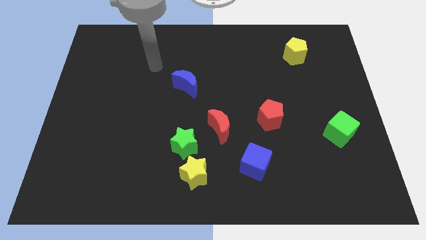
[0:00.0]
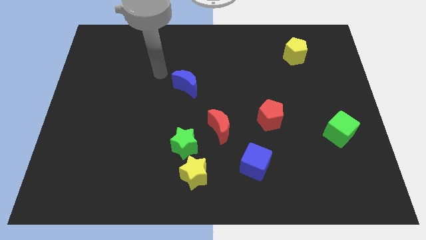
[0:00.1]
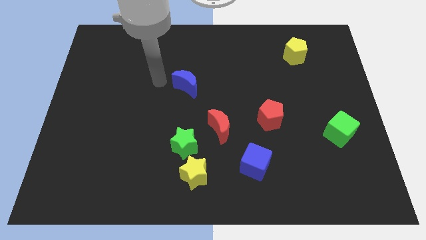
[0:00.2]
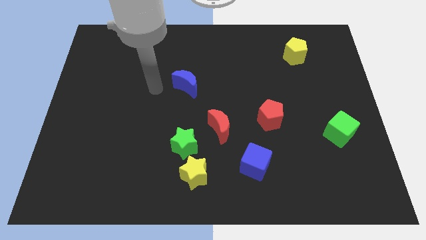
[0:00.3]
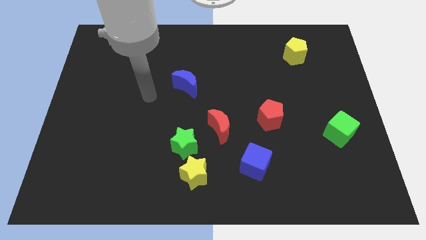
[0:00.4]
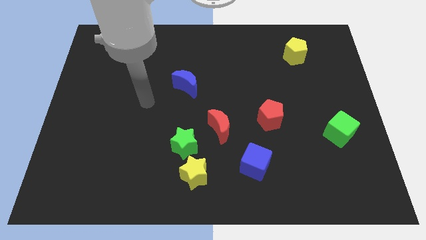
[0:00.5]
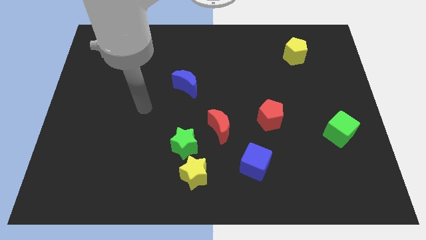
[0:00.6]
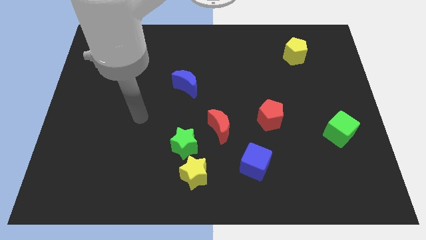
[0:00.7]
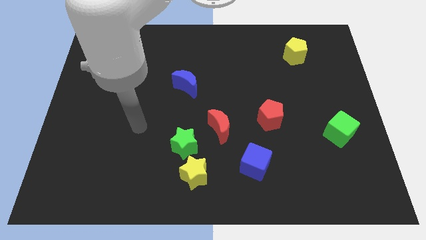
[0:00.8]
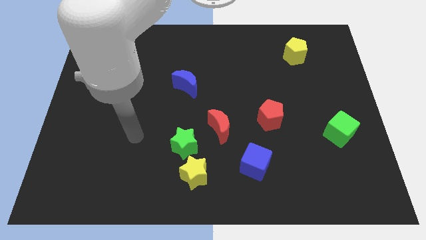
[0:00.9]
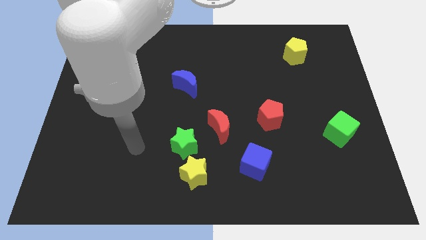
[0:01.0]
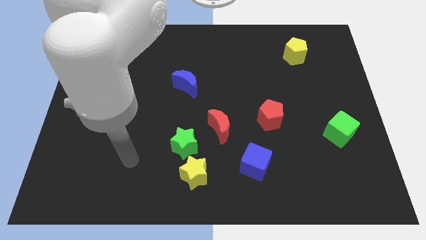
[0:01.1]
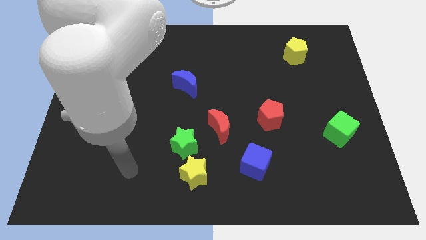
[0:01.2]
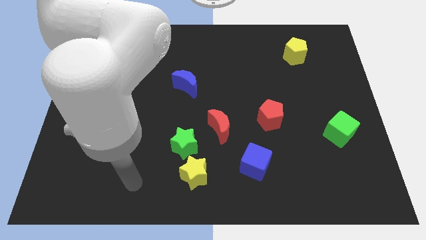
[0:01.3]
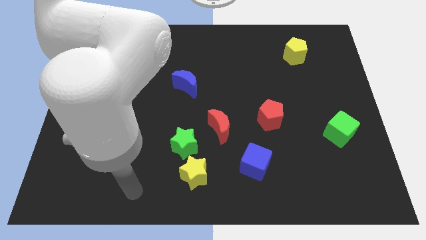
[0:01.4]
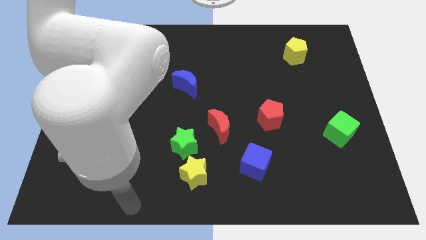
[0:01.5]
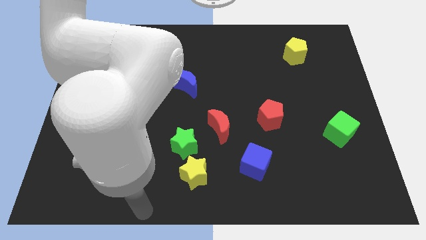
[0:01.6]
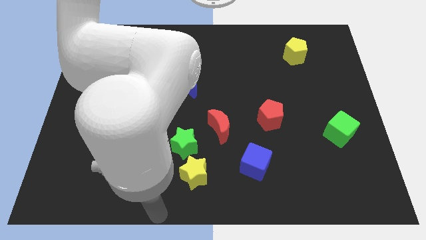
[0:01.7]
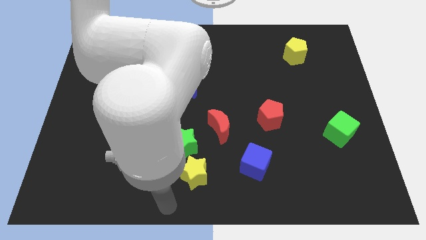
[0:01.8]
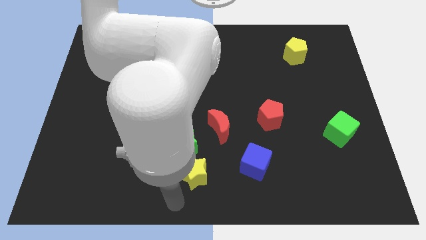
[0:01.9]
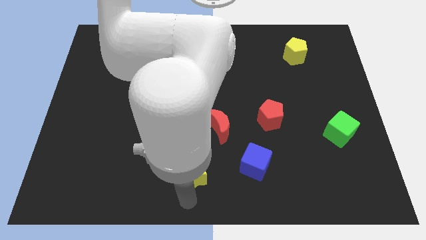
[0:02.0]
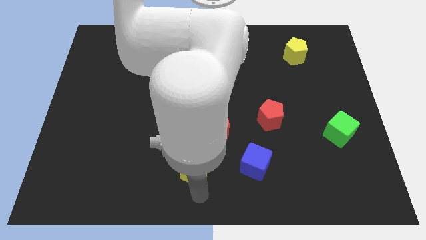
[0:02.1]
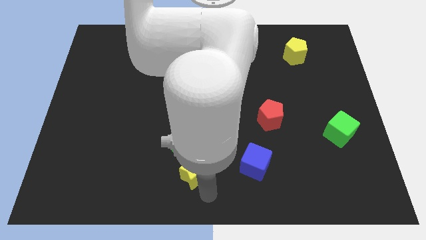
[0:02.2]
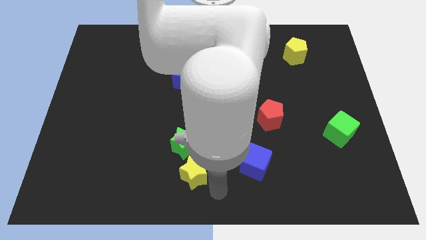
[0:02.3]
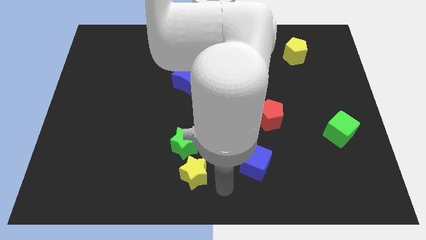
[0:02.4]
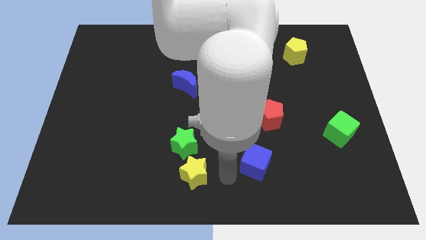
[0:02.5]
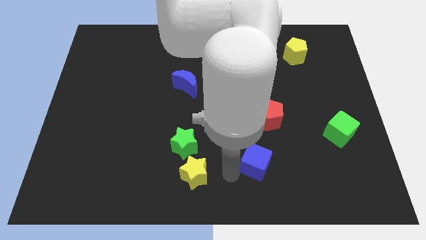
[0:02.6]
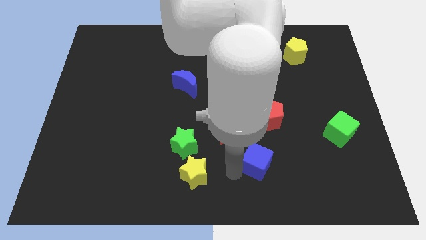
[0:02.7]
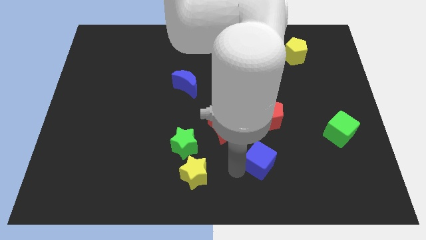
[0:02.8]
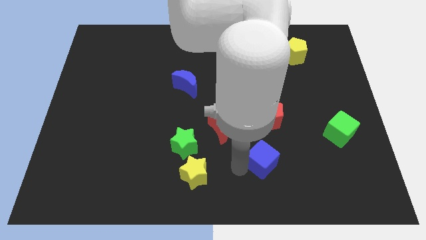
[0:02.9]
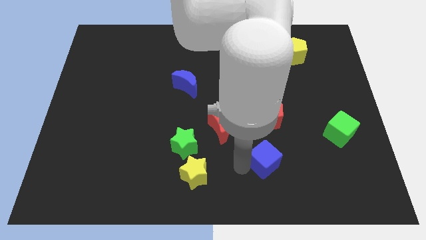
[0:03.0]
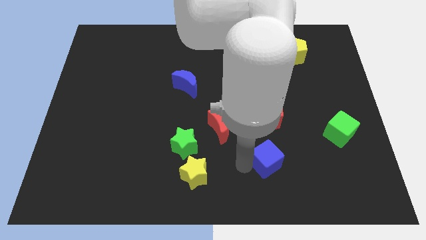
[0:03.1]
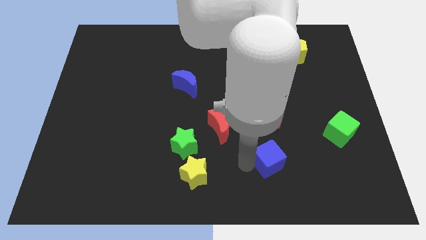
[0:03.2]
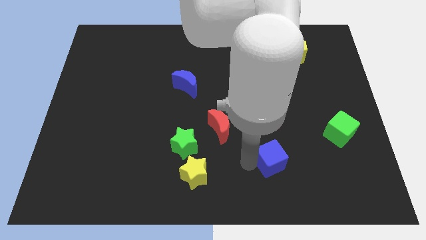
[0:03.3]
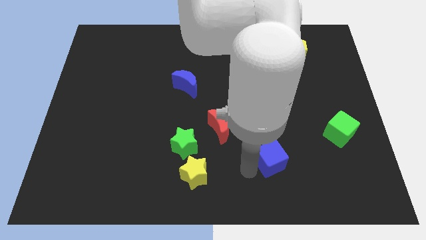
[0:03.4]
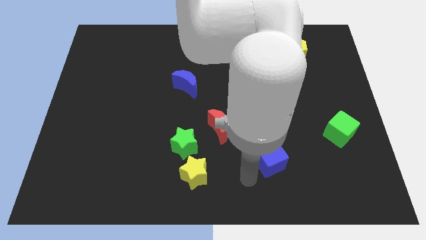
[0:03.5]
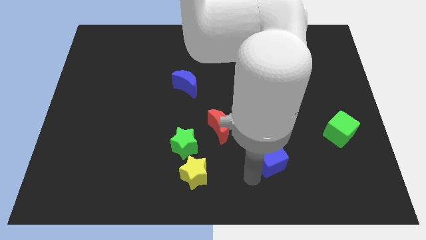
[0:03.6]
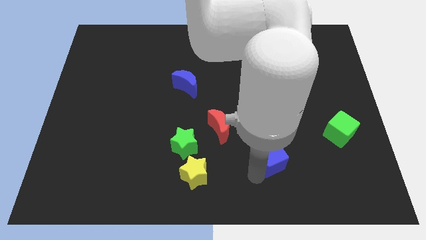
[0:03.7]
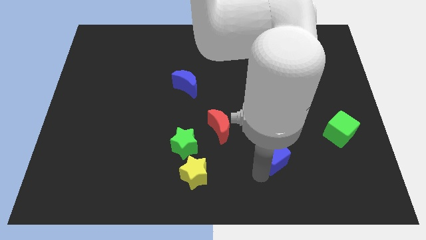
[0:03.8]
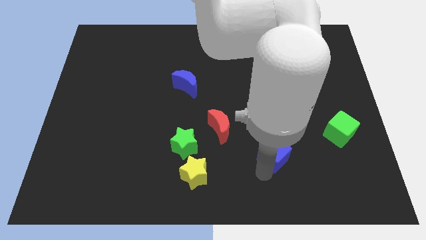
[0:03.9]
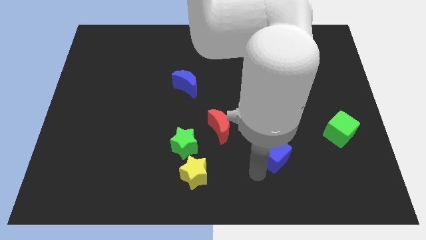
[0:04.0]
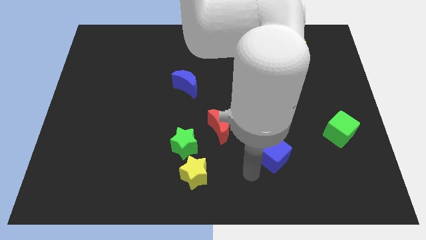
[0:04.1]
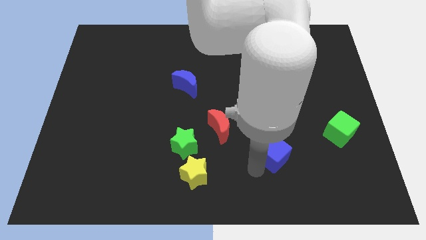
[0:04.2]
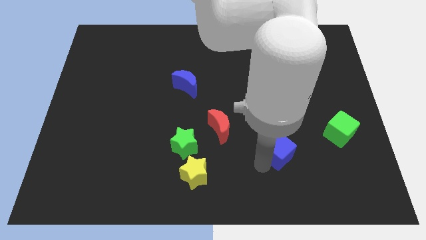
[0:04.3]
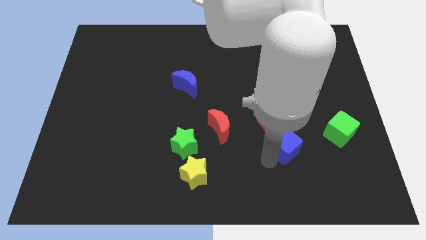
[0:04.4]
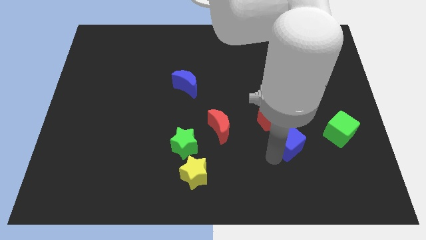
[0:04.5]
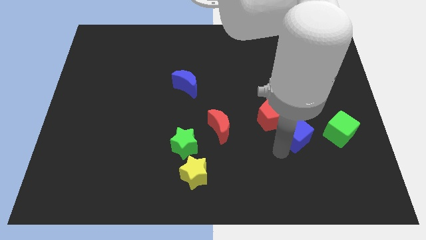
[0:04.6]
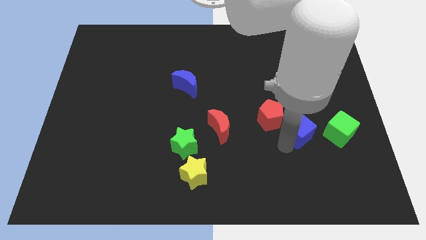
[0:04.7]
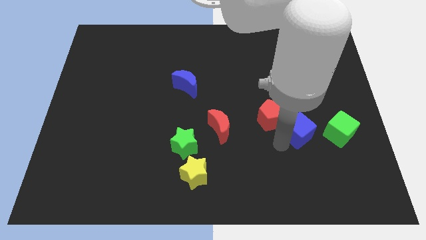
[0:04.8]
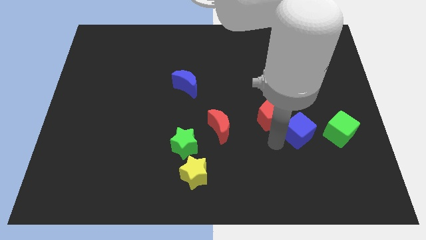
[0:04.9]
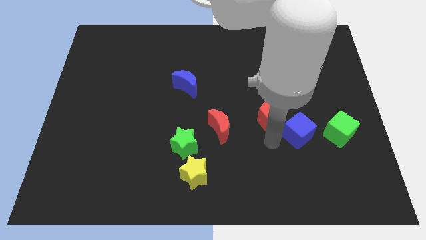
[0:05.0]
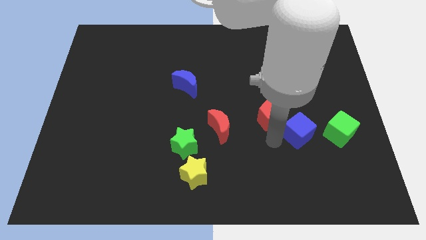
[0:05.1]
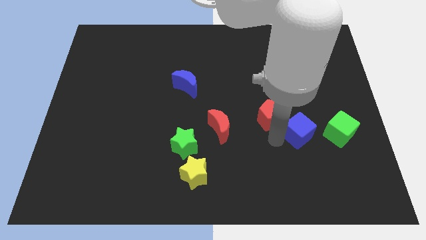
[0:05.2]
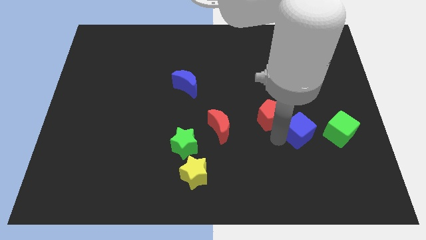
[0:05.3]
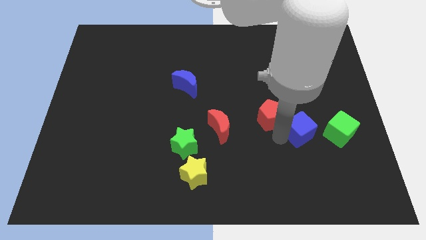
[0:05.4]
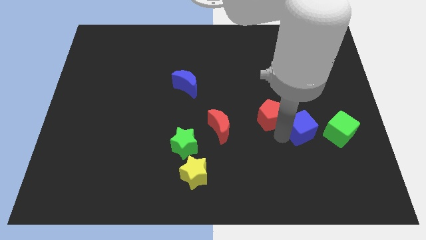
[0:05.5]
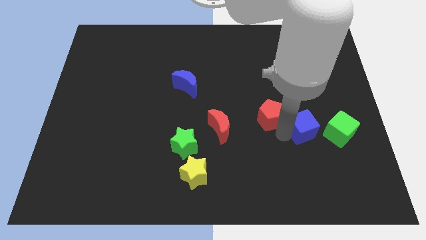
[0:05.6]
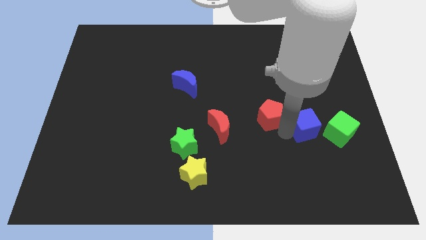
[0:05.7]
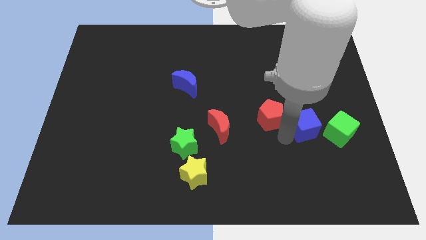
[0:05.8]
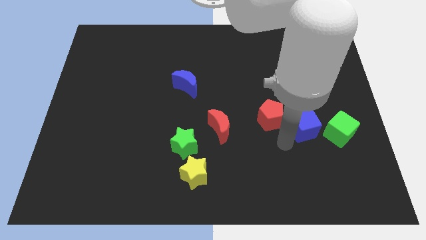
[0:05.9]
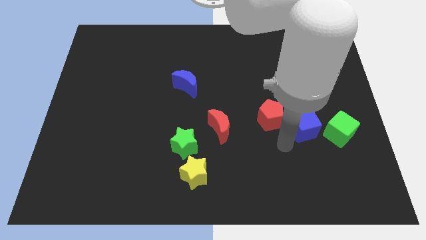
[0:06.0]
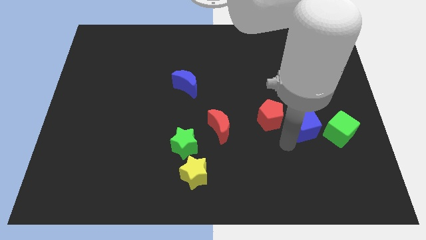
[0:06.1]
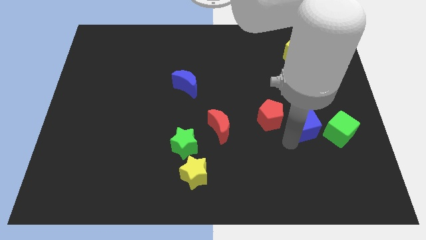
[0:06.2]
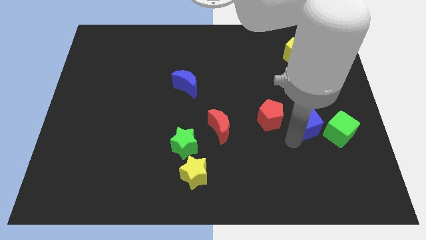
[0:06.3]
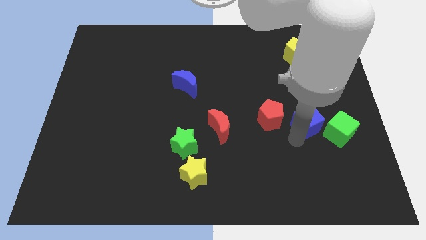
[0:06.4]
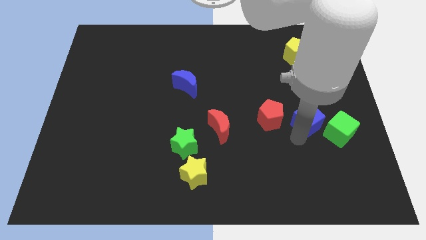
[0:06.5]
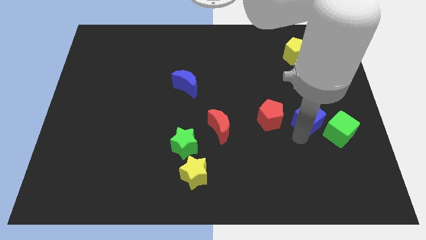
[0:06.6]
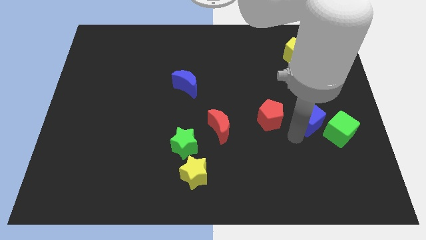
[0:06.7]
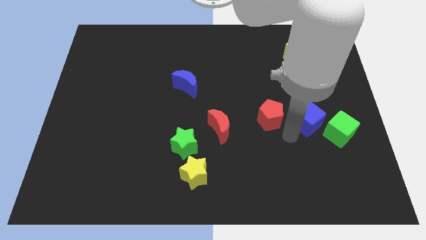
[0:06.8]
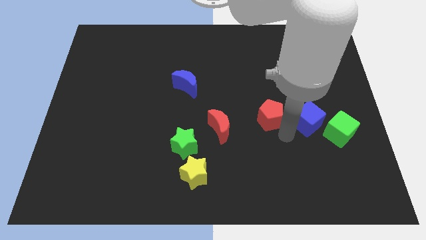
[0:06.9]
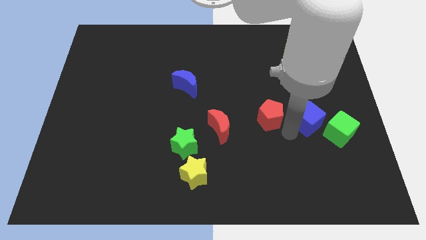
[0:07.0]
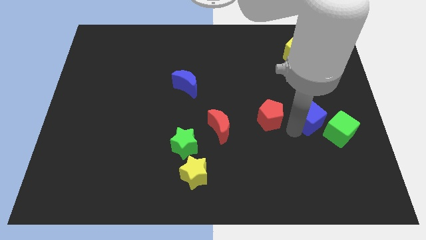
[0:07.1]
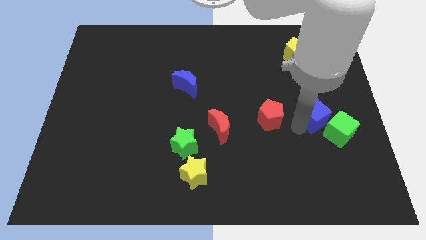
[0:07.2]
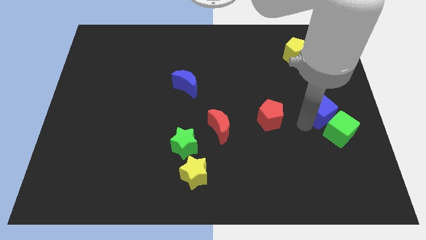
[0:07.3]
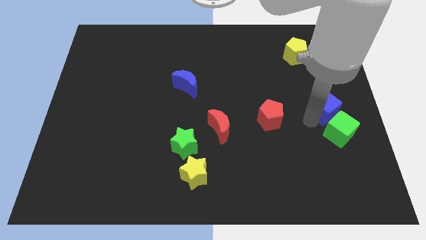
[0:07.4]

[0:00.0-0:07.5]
push the blue cube to the right side of the board

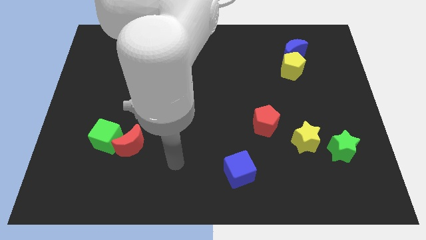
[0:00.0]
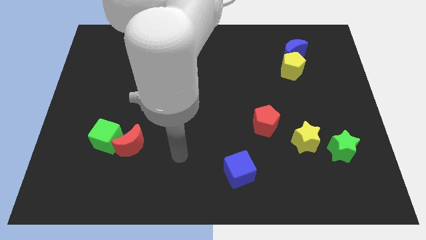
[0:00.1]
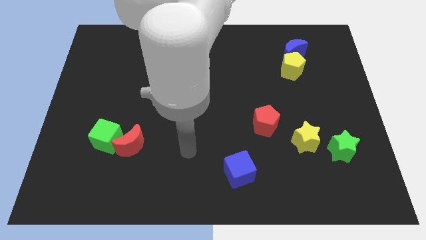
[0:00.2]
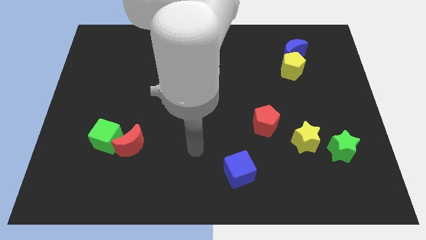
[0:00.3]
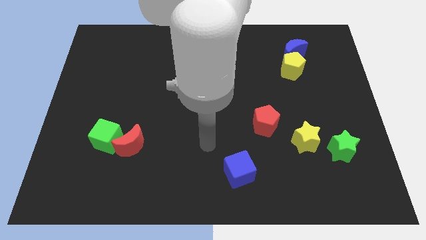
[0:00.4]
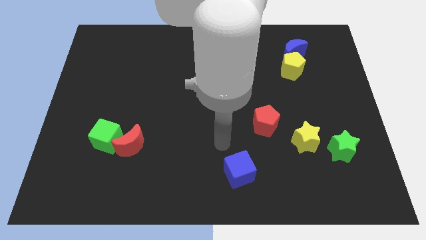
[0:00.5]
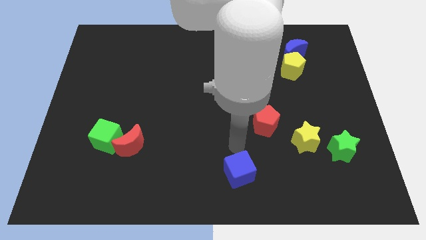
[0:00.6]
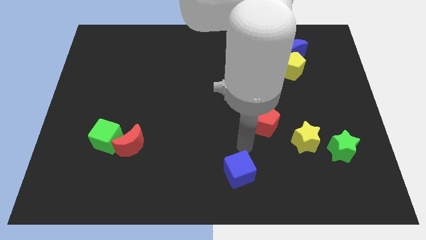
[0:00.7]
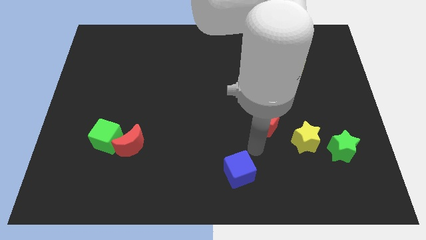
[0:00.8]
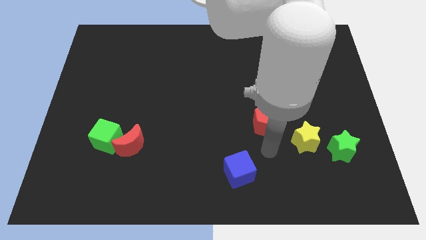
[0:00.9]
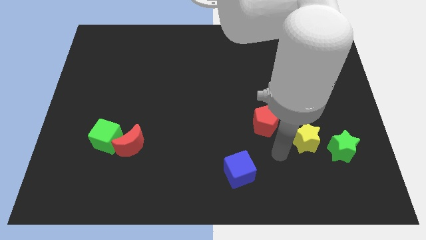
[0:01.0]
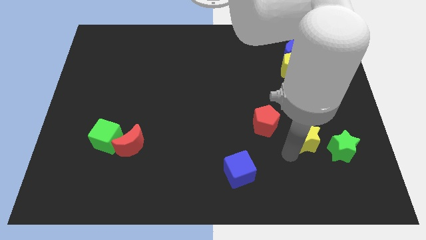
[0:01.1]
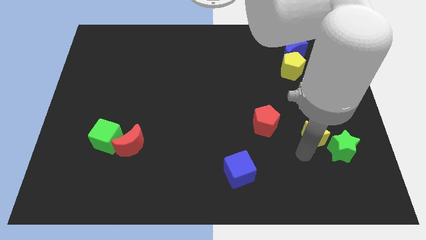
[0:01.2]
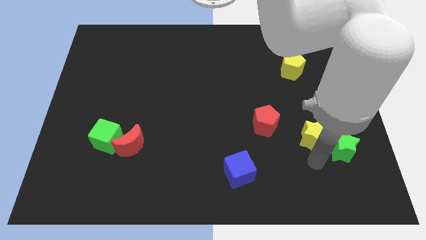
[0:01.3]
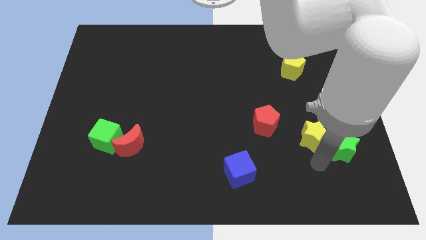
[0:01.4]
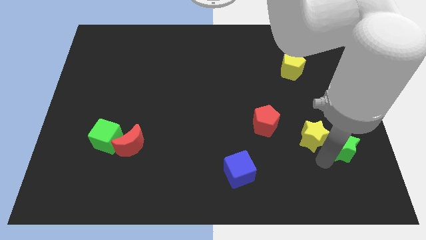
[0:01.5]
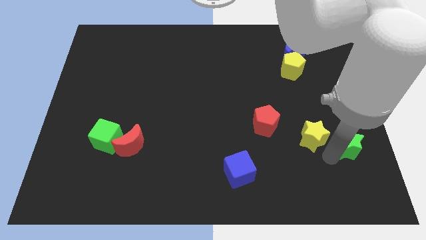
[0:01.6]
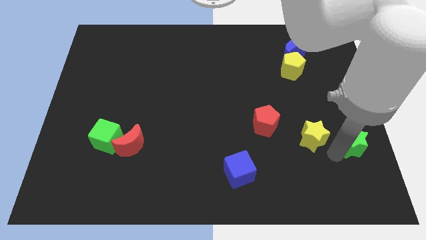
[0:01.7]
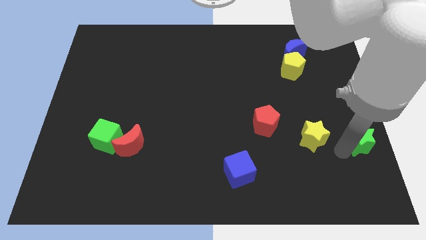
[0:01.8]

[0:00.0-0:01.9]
move the green star to the right side of the board
